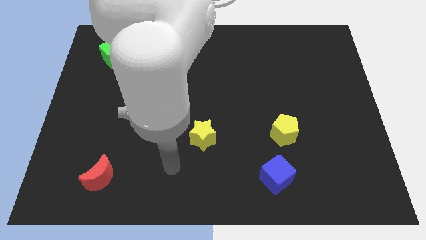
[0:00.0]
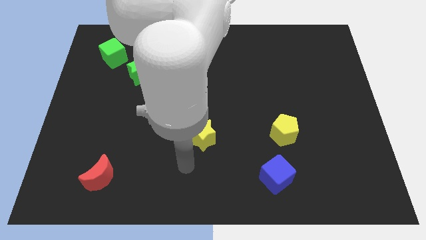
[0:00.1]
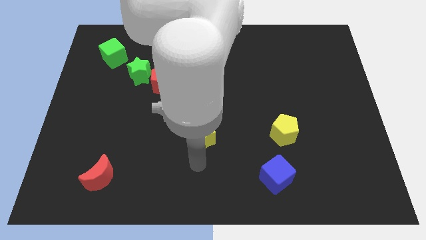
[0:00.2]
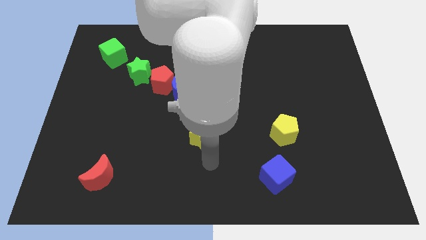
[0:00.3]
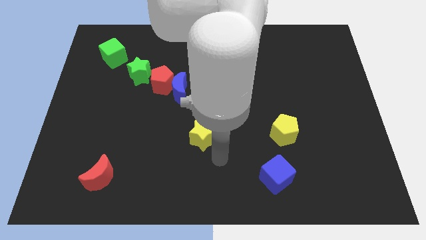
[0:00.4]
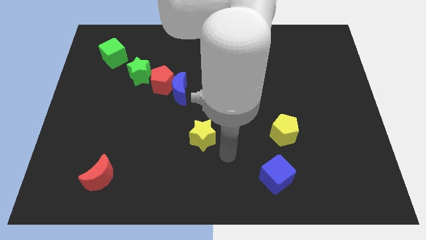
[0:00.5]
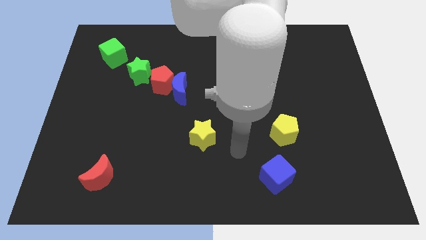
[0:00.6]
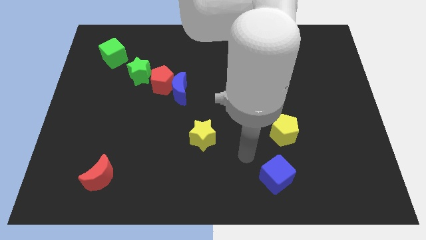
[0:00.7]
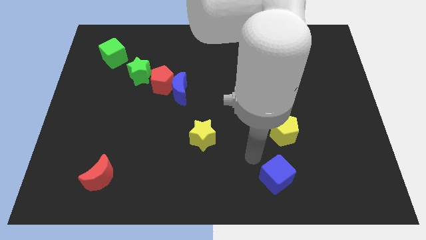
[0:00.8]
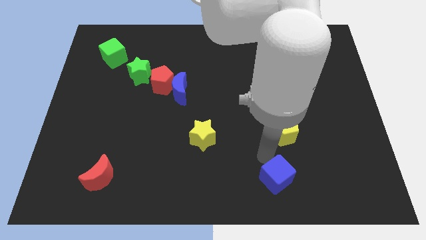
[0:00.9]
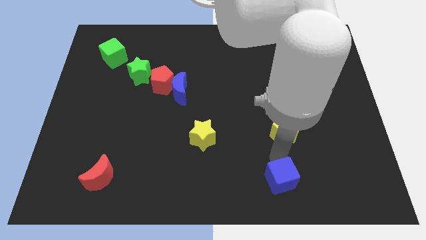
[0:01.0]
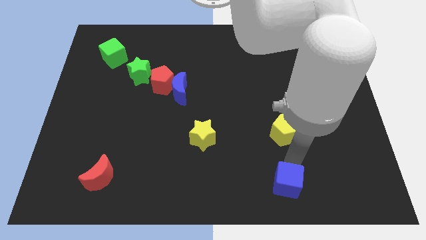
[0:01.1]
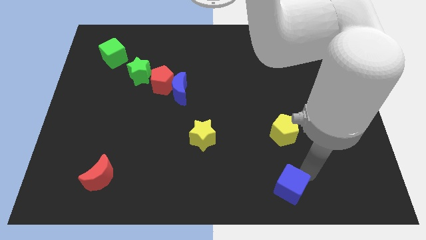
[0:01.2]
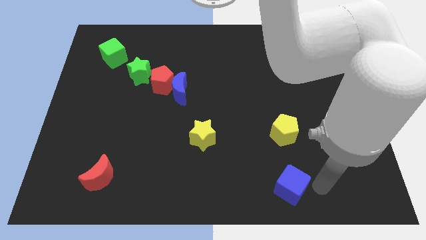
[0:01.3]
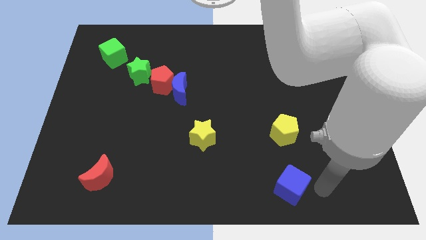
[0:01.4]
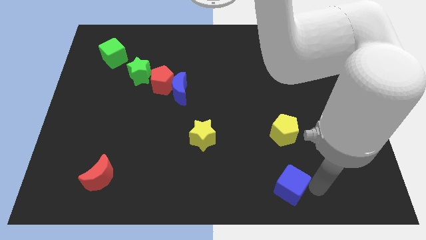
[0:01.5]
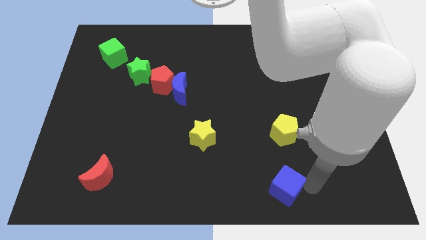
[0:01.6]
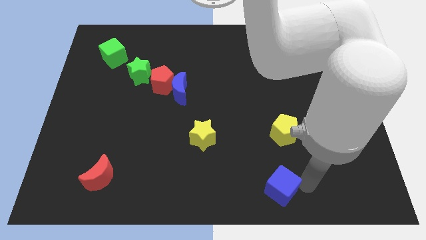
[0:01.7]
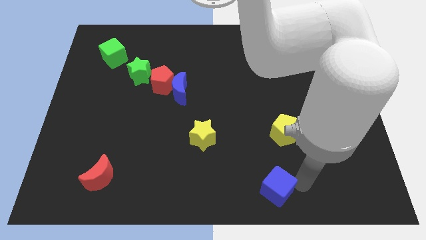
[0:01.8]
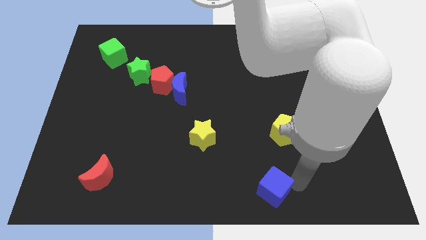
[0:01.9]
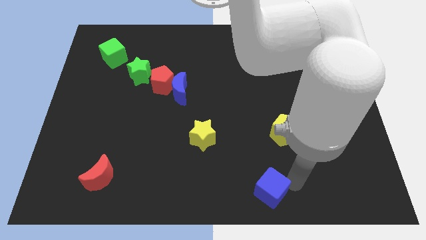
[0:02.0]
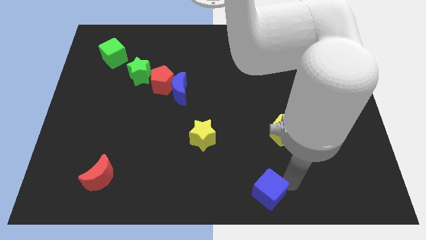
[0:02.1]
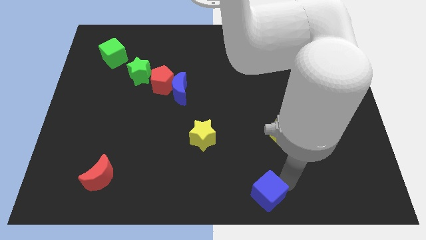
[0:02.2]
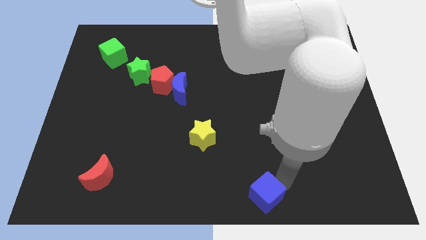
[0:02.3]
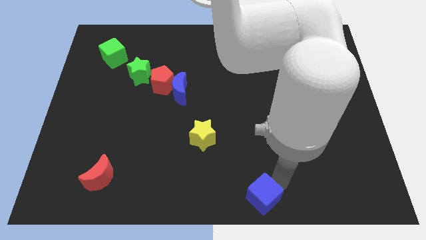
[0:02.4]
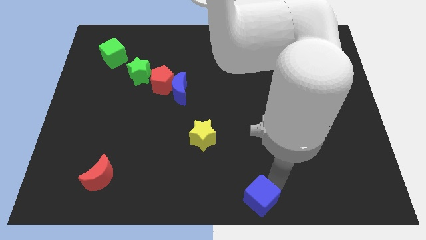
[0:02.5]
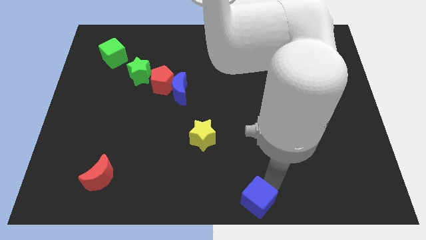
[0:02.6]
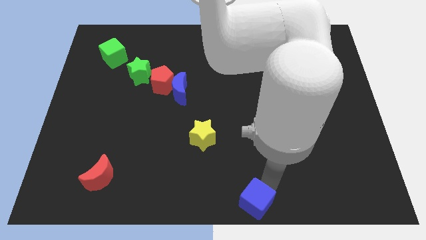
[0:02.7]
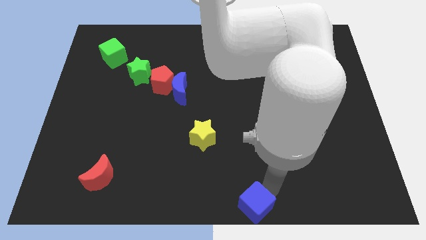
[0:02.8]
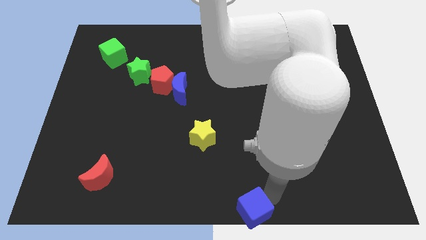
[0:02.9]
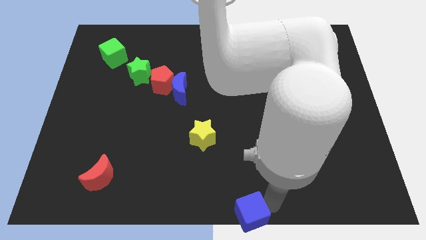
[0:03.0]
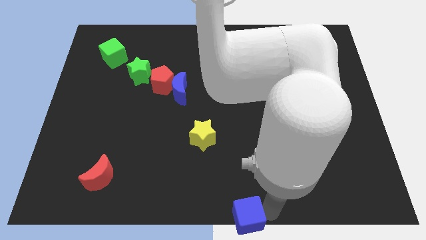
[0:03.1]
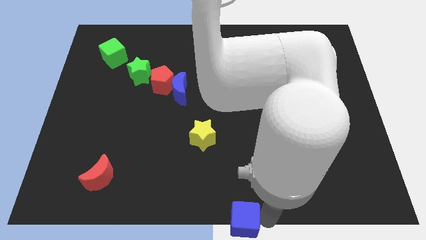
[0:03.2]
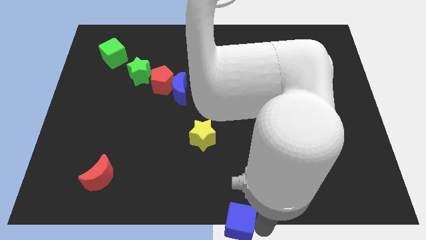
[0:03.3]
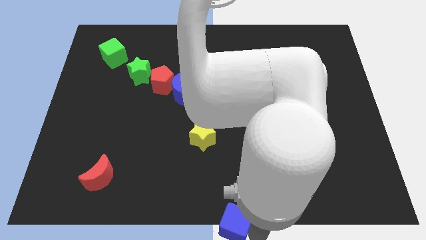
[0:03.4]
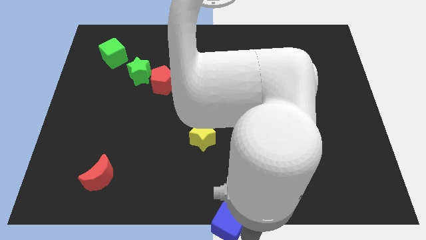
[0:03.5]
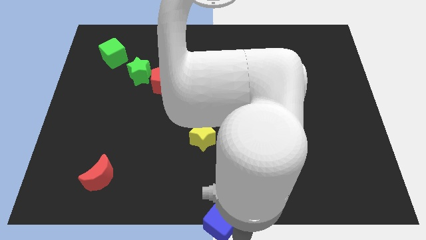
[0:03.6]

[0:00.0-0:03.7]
slide the blue cube a little to the left

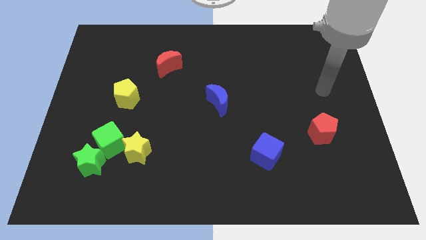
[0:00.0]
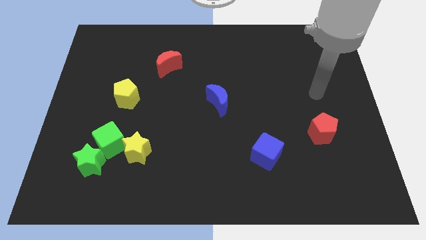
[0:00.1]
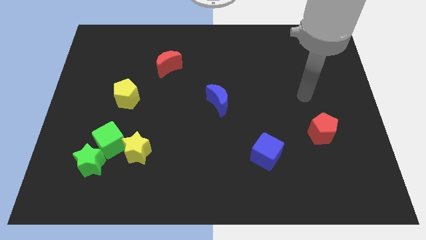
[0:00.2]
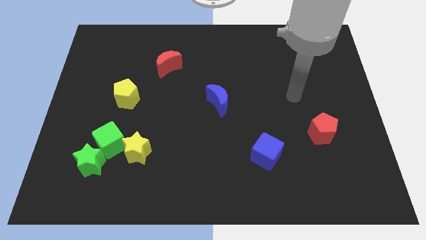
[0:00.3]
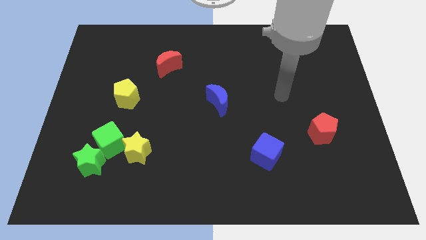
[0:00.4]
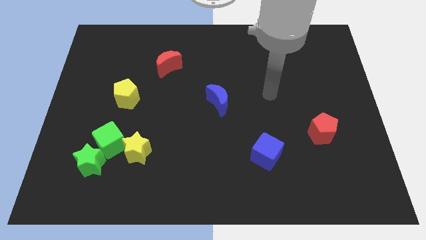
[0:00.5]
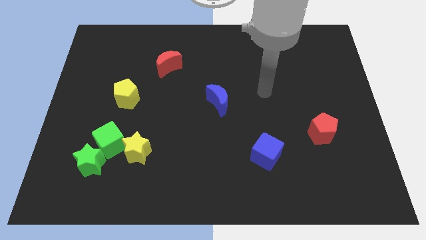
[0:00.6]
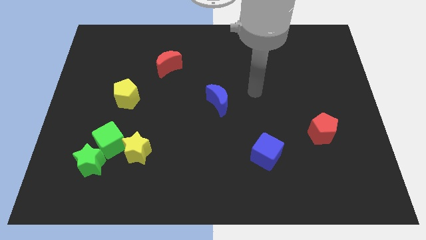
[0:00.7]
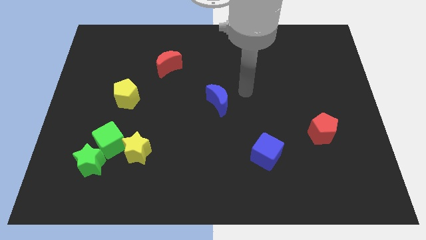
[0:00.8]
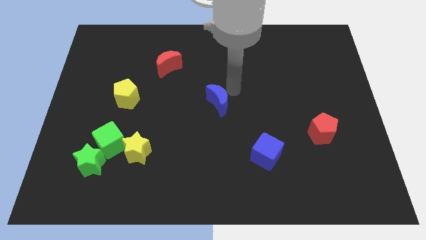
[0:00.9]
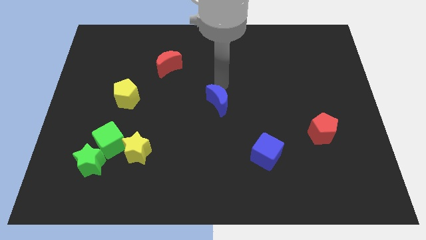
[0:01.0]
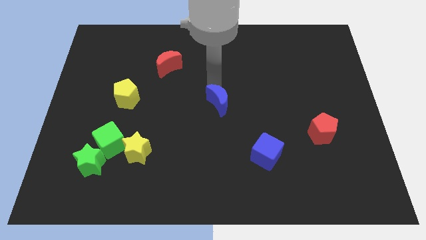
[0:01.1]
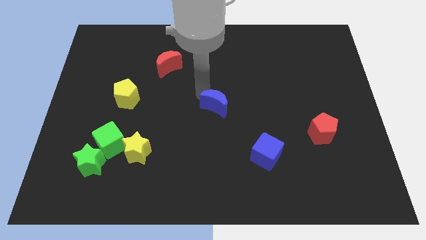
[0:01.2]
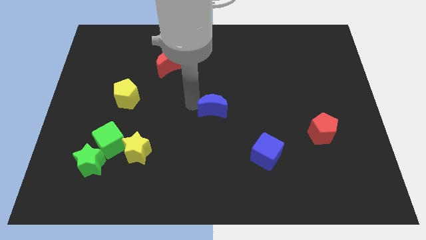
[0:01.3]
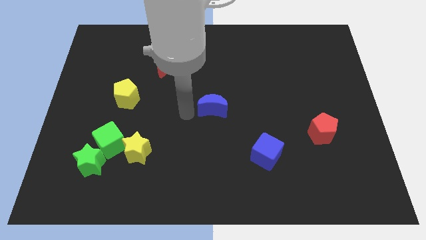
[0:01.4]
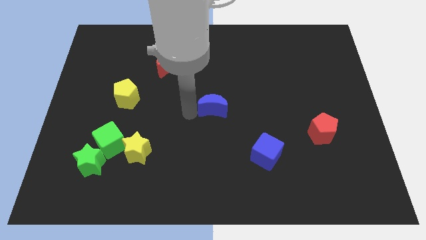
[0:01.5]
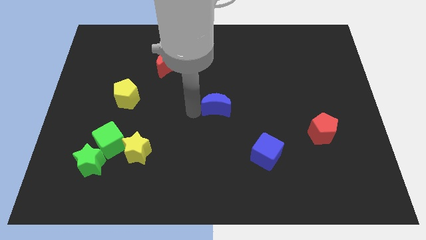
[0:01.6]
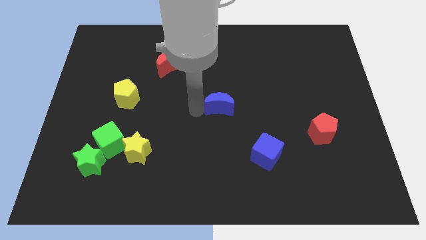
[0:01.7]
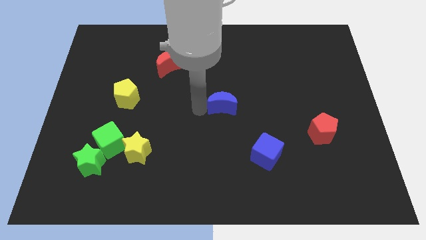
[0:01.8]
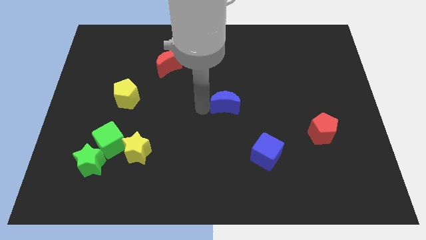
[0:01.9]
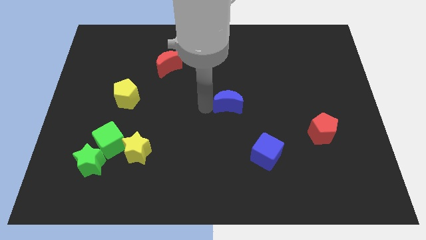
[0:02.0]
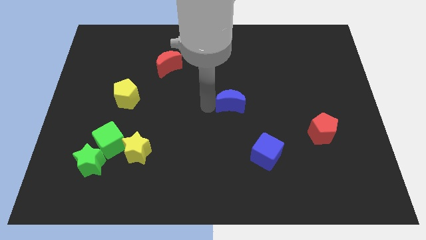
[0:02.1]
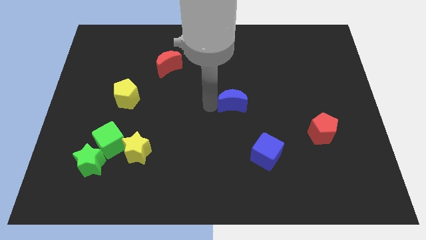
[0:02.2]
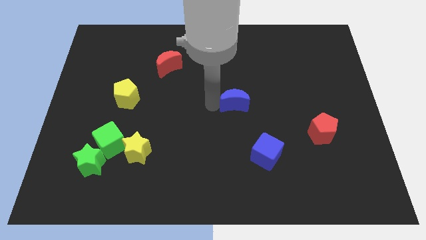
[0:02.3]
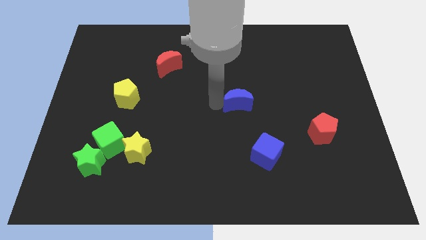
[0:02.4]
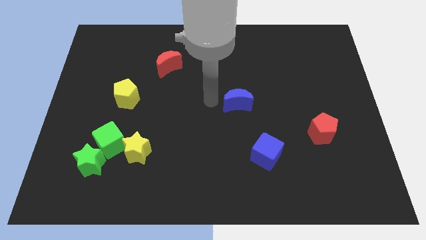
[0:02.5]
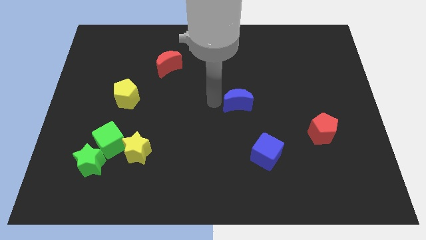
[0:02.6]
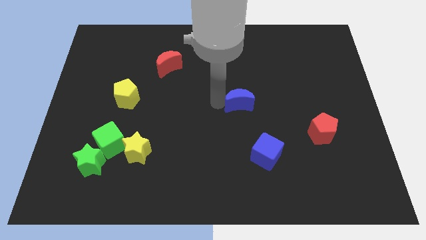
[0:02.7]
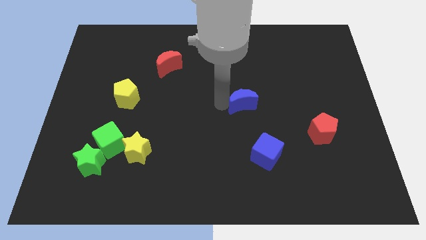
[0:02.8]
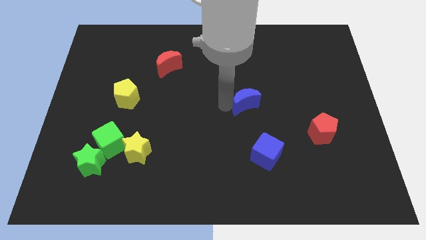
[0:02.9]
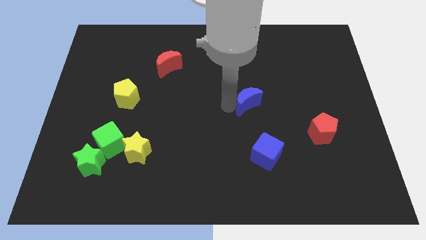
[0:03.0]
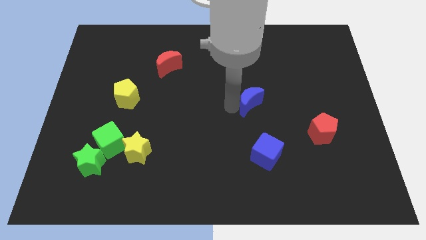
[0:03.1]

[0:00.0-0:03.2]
move the blue moon right a bit

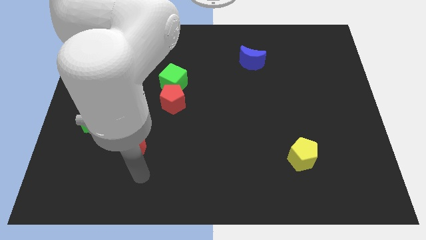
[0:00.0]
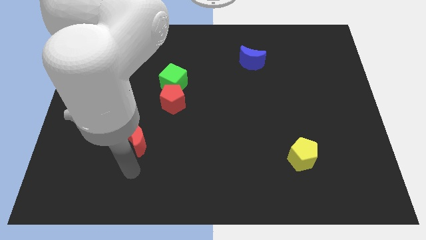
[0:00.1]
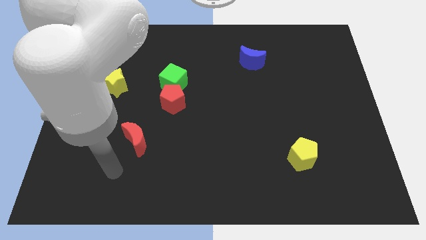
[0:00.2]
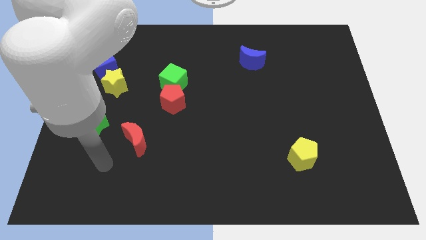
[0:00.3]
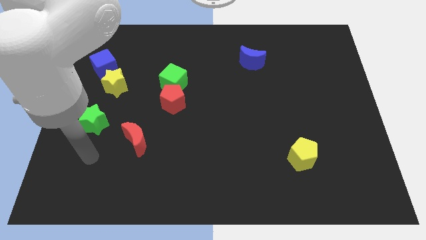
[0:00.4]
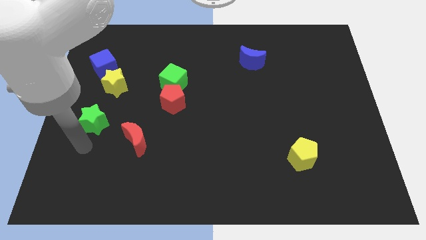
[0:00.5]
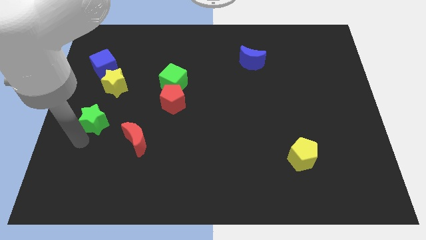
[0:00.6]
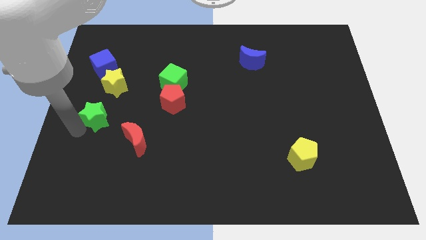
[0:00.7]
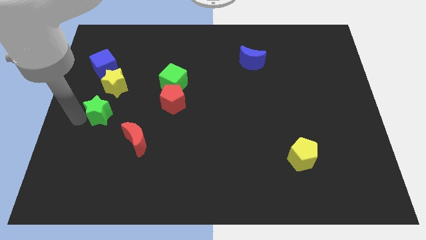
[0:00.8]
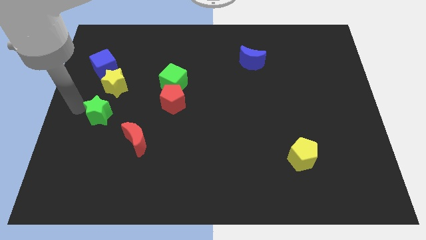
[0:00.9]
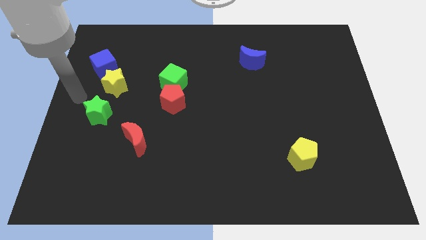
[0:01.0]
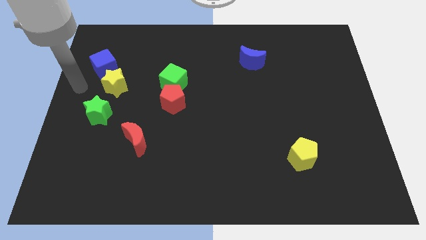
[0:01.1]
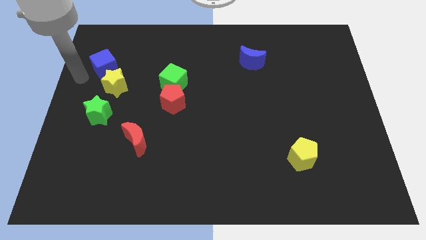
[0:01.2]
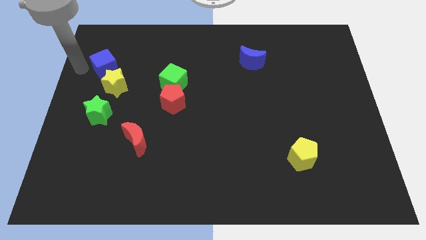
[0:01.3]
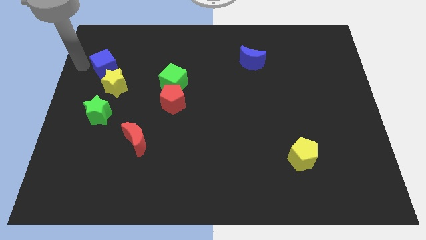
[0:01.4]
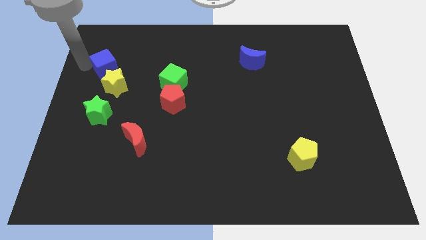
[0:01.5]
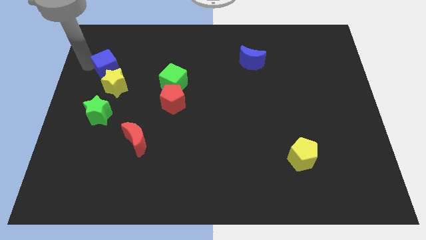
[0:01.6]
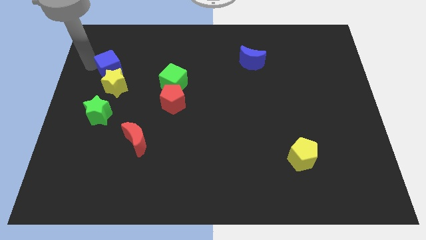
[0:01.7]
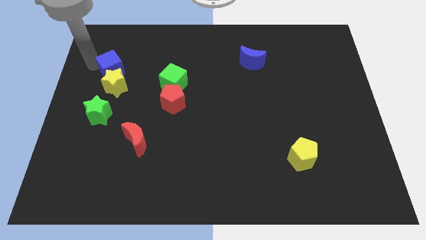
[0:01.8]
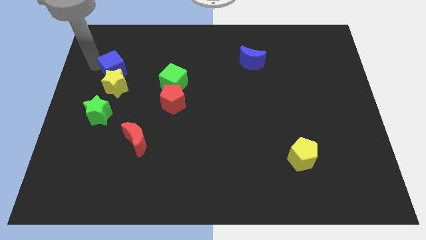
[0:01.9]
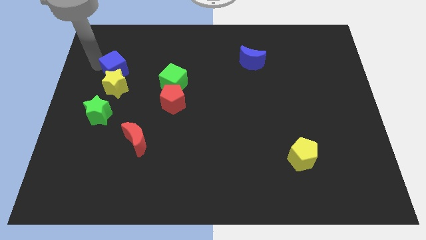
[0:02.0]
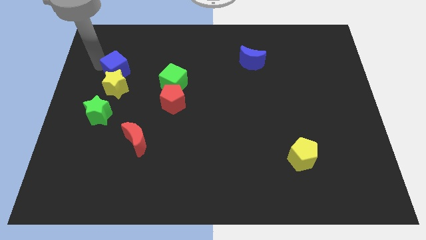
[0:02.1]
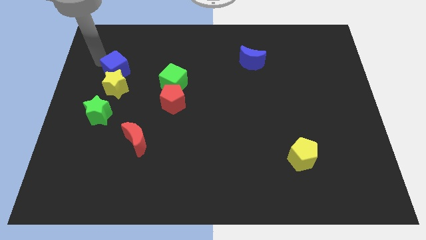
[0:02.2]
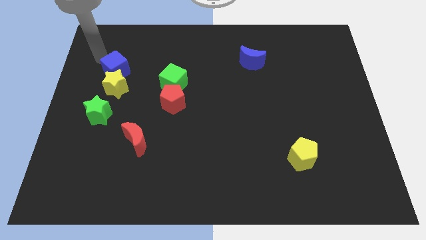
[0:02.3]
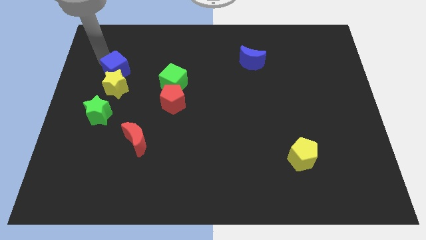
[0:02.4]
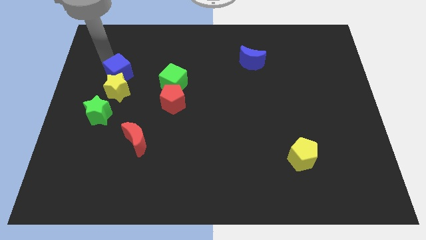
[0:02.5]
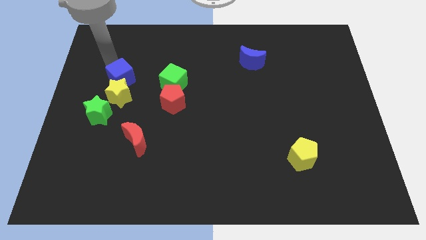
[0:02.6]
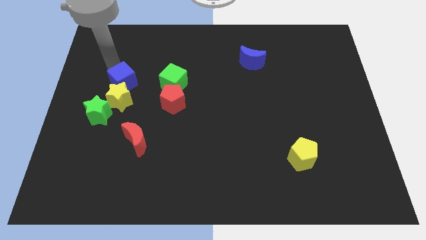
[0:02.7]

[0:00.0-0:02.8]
slightly slide the blue cube diagonally down and right
